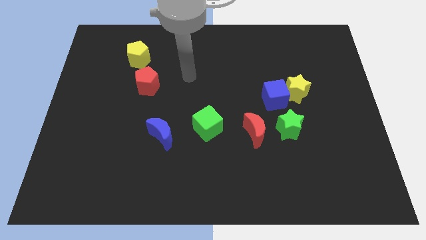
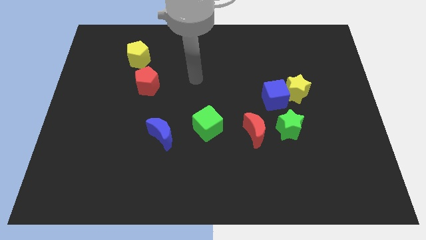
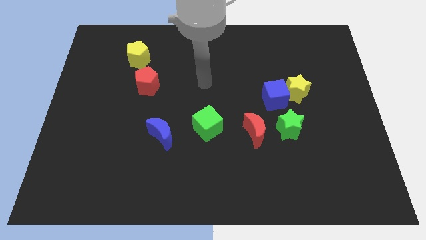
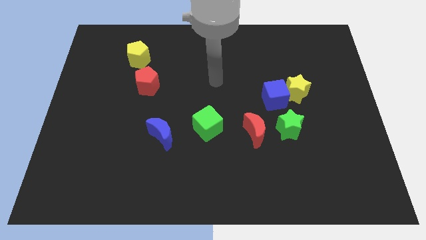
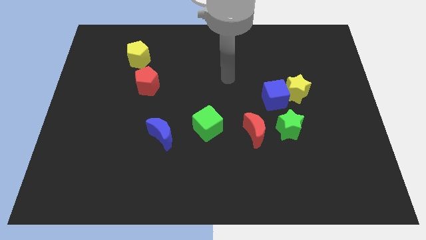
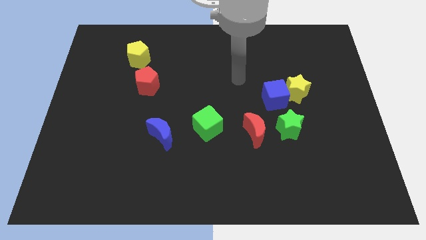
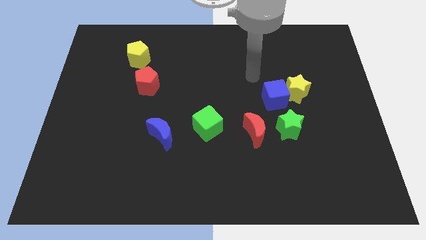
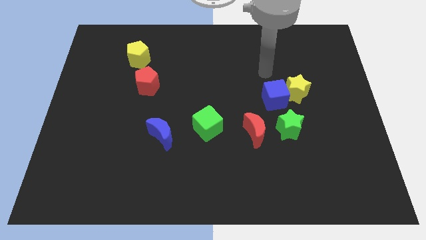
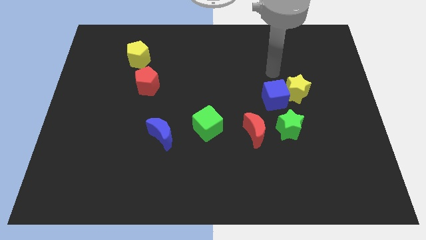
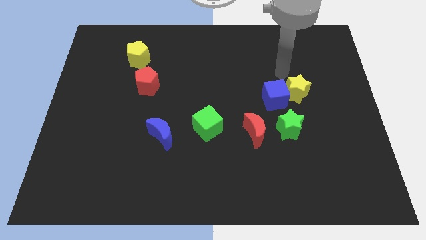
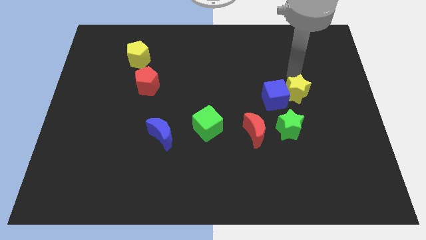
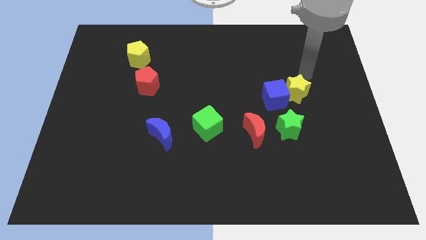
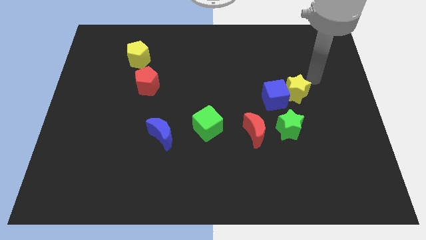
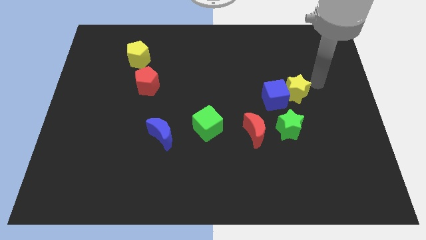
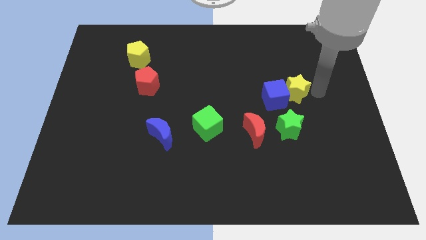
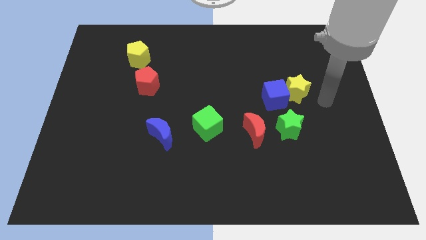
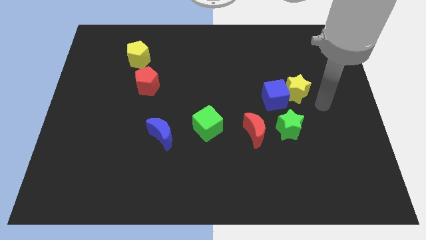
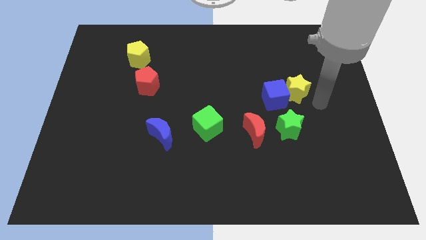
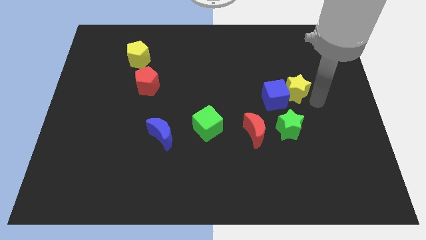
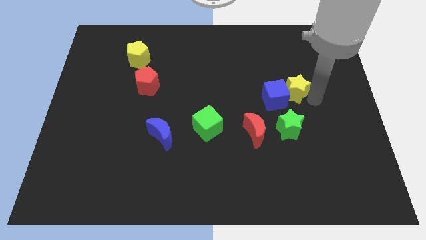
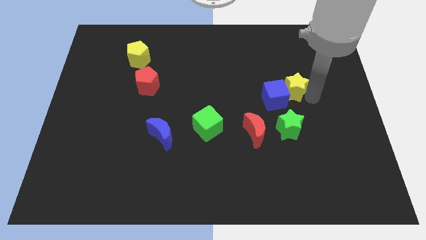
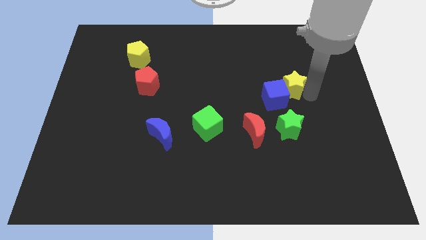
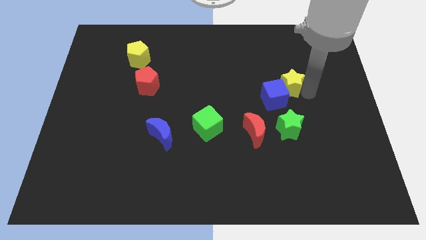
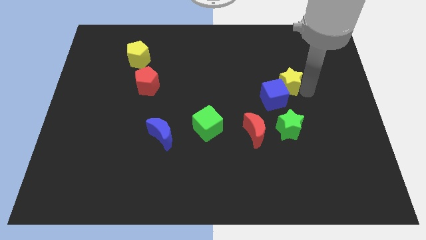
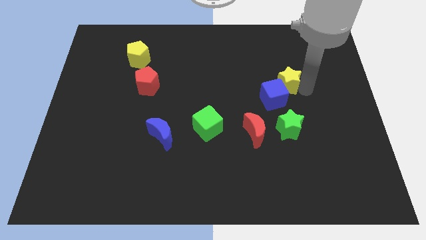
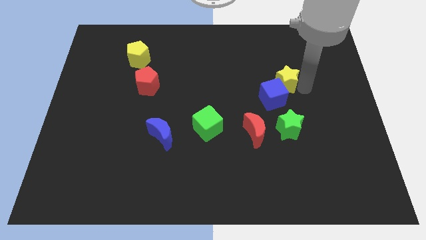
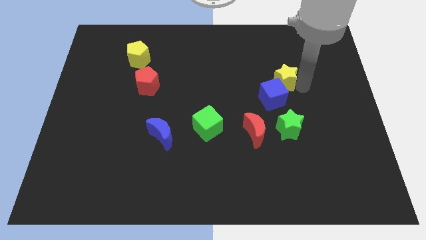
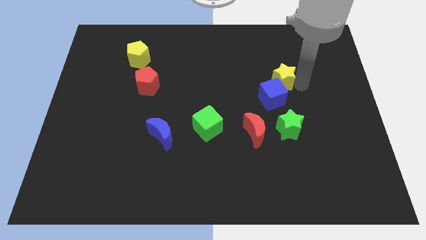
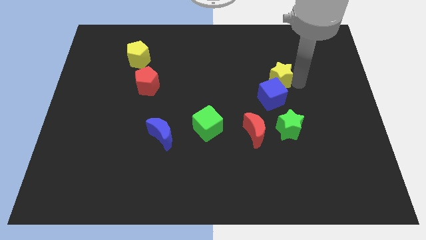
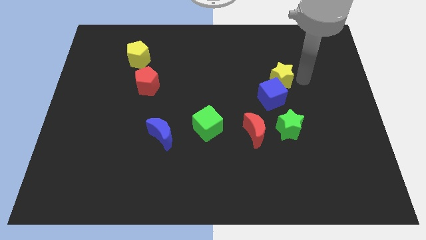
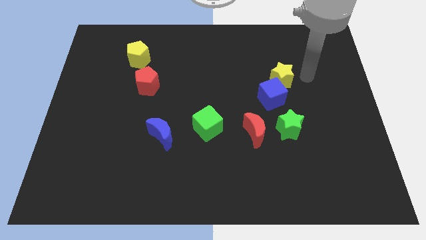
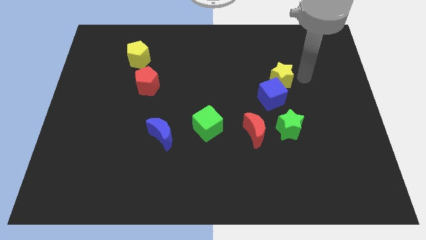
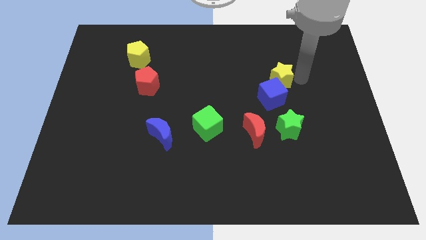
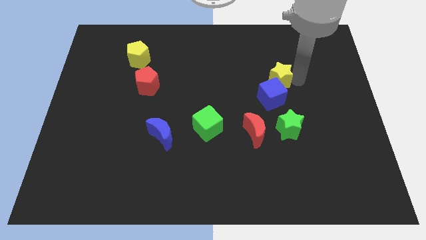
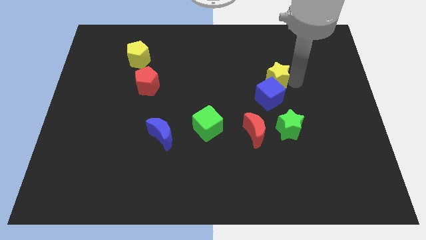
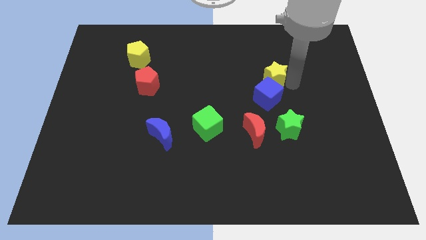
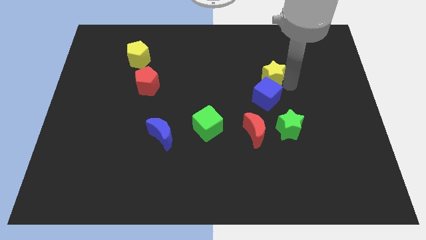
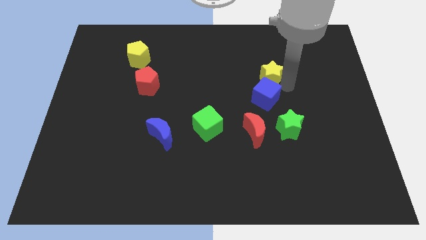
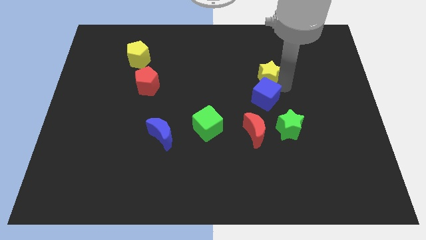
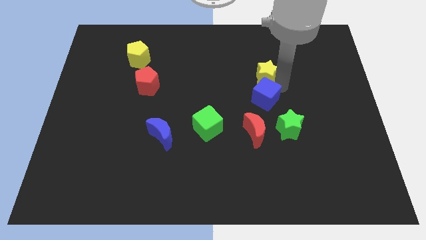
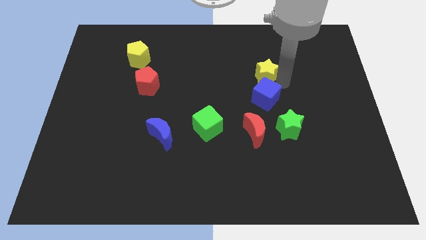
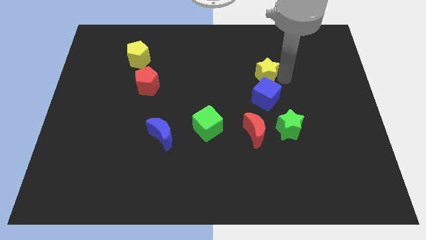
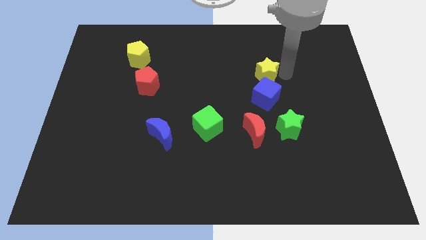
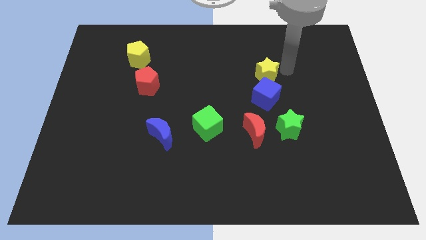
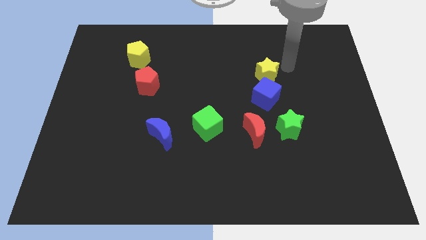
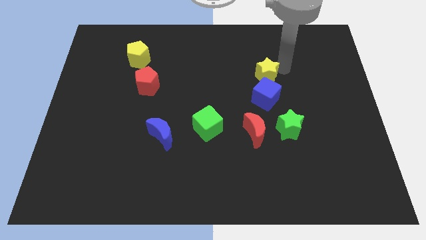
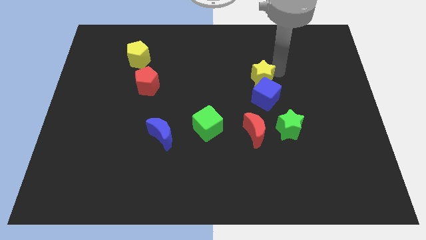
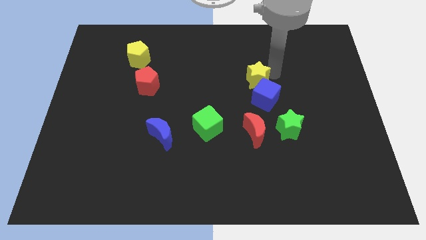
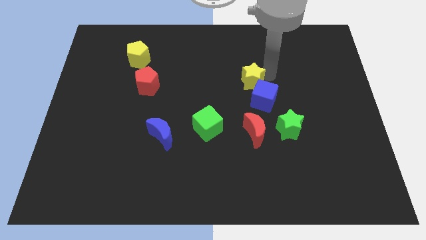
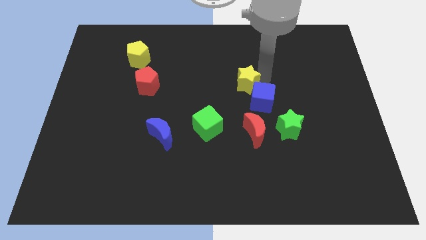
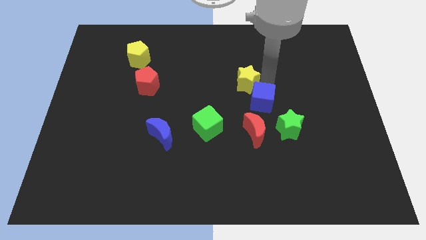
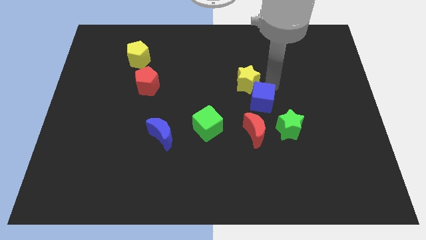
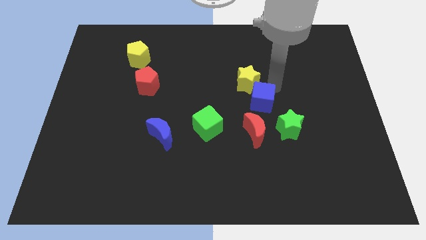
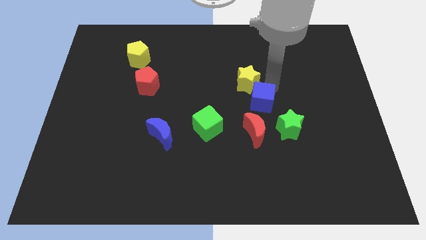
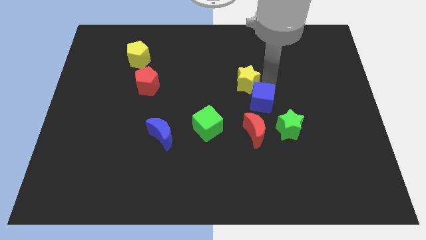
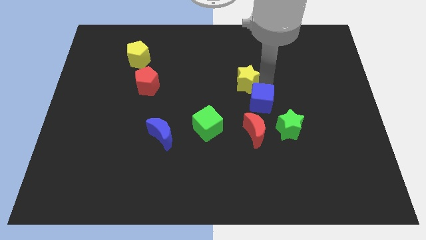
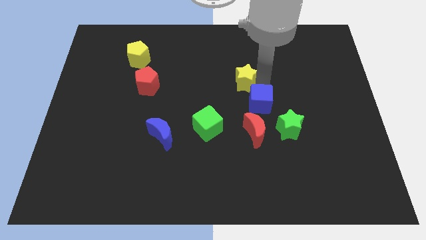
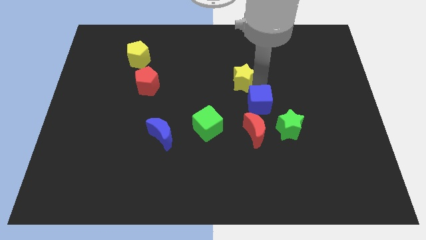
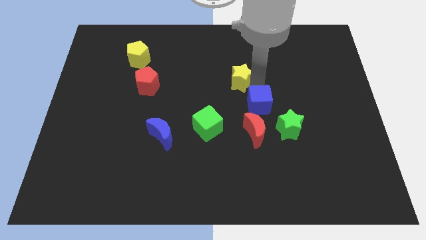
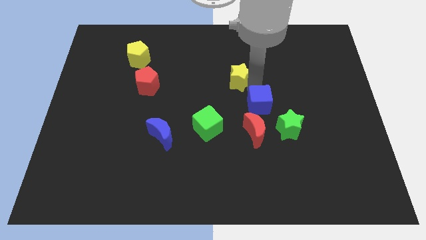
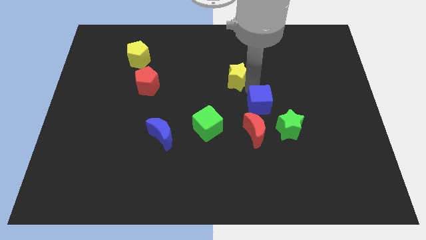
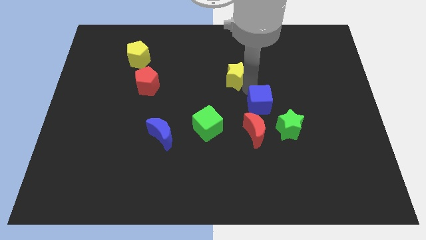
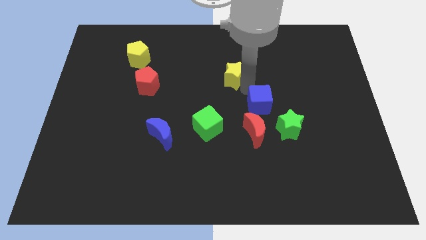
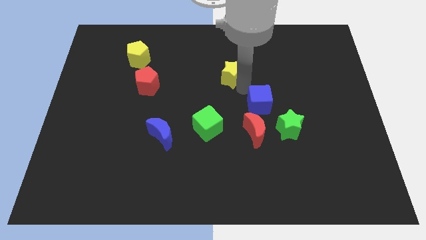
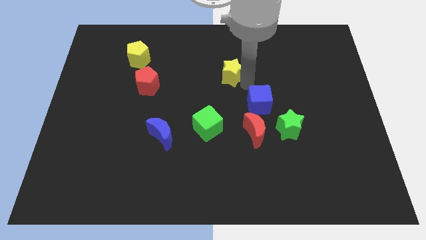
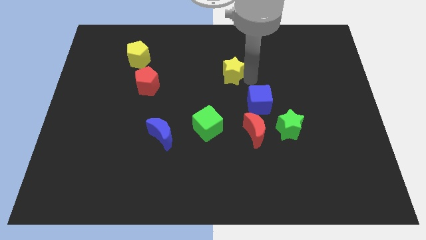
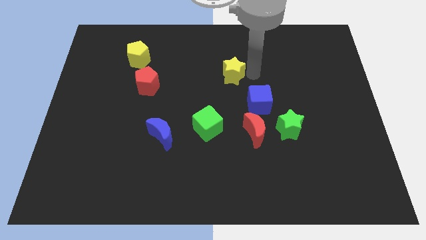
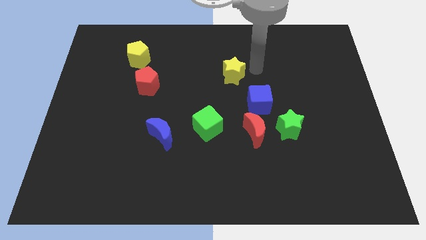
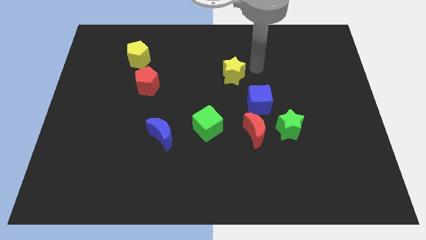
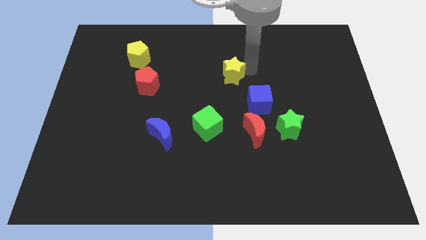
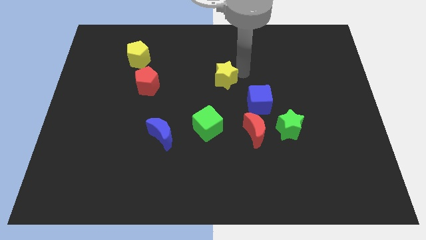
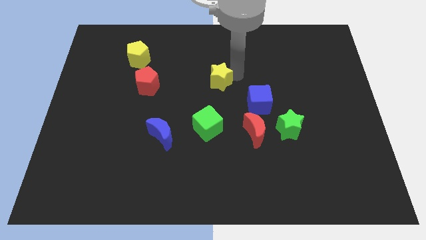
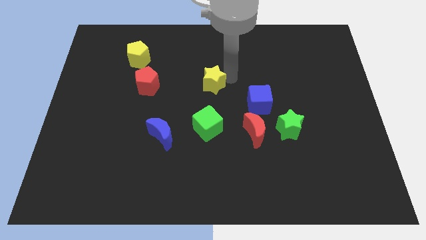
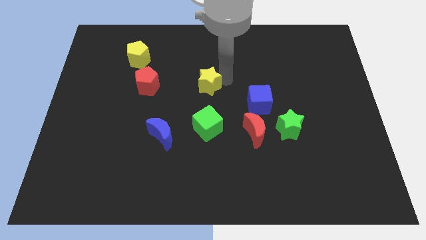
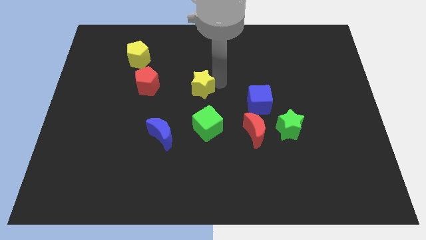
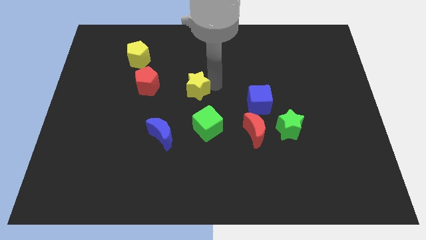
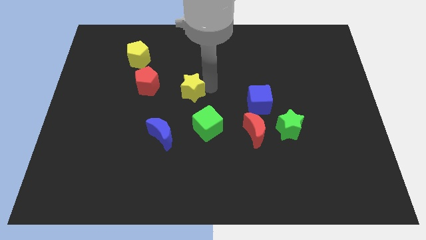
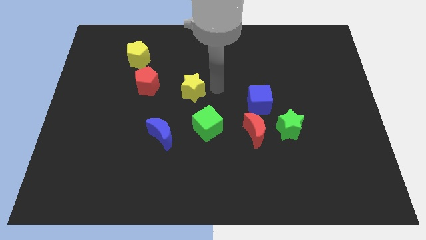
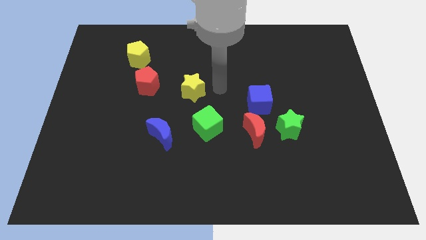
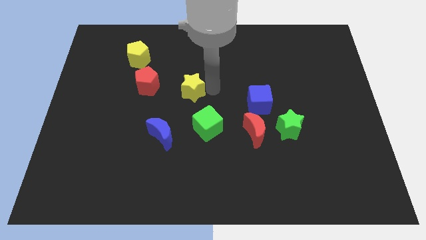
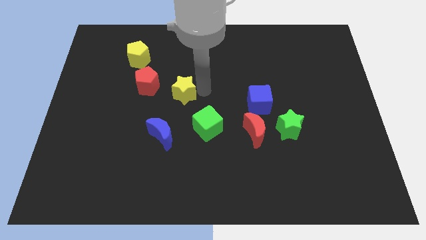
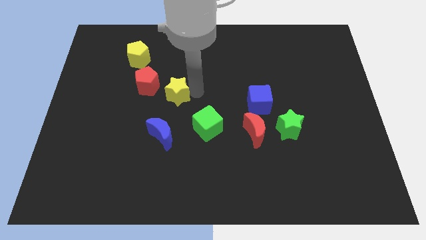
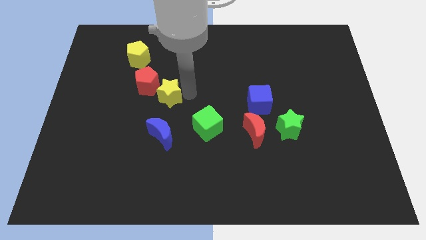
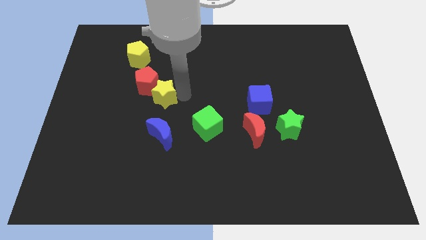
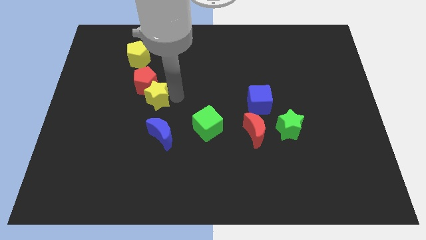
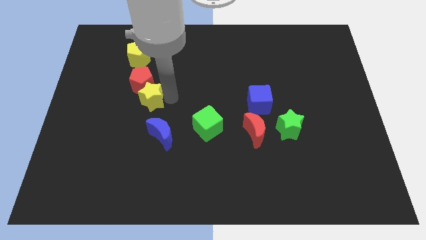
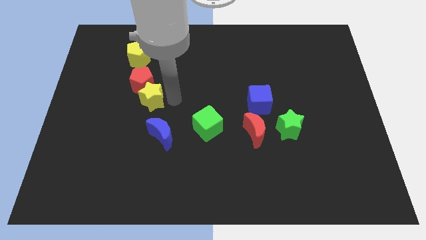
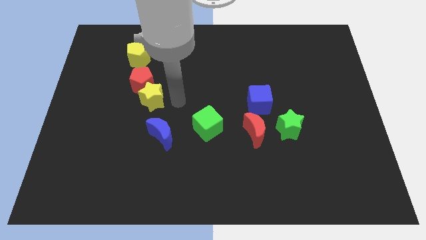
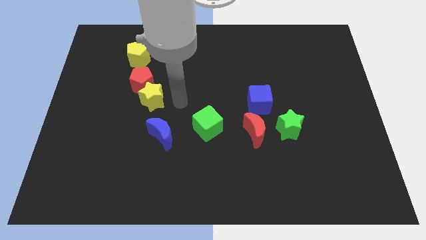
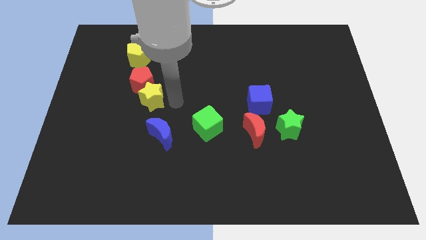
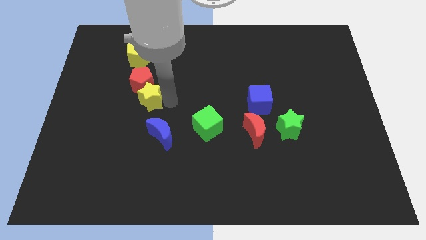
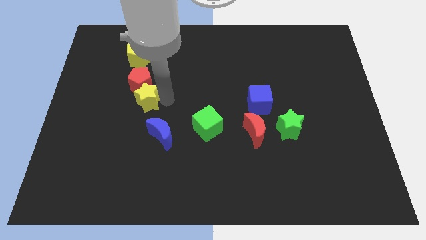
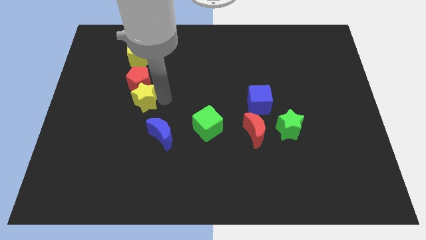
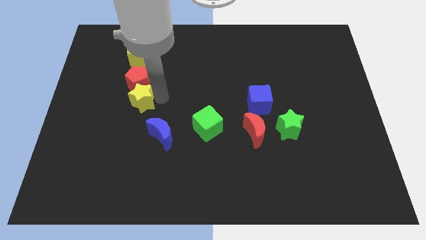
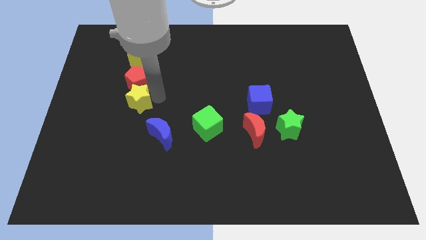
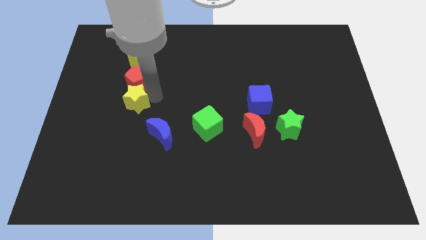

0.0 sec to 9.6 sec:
push the yellow star to the bottom left side of the red pentagon
